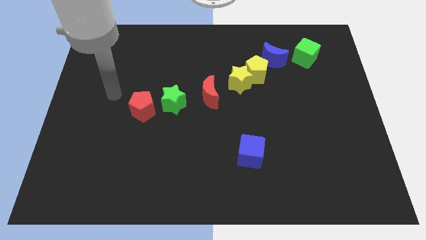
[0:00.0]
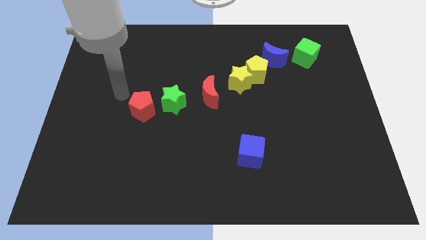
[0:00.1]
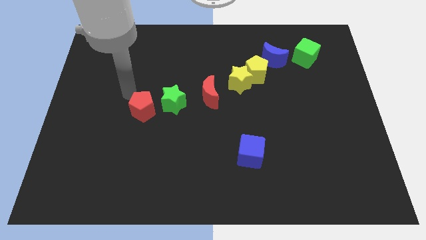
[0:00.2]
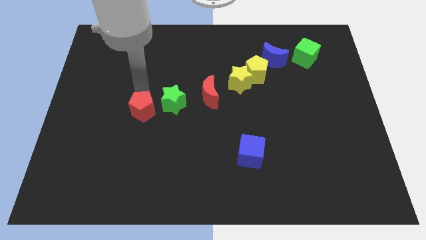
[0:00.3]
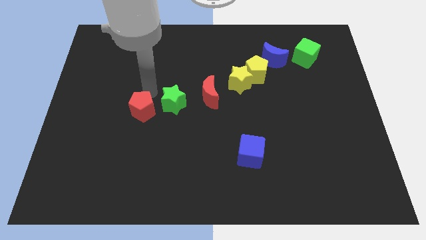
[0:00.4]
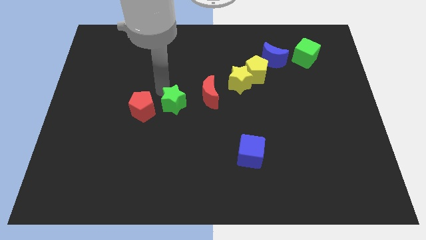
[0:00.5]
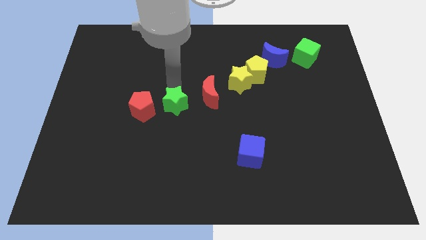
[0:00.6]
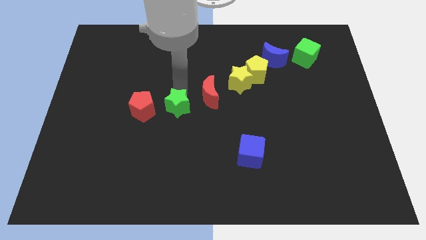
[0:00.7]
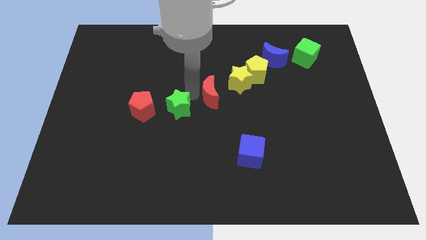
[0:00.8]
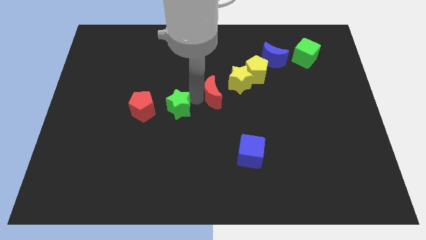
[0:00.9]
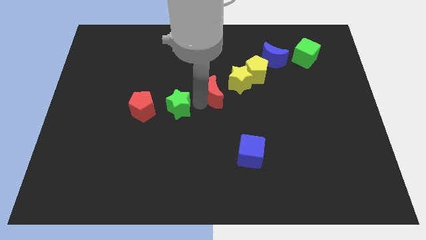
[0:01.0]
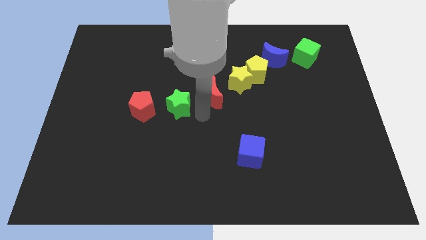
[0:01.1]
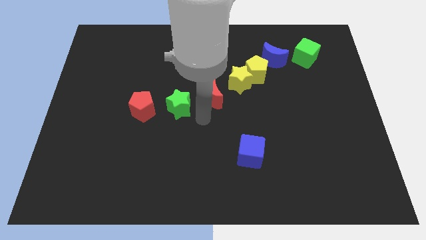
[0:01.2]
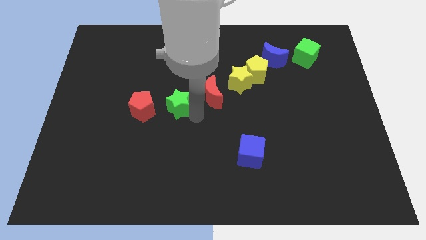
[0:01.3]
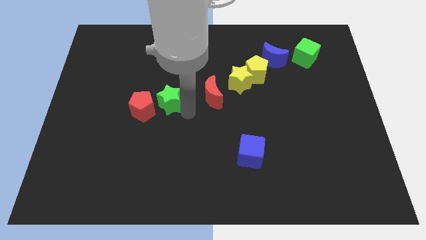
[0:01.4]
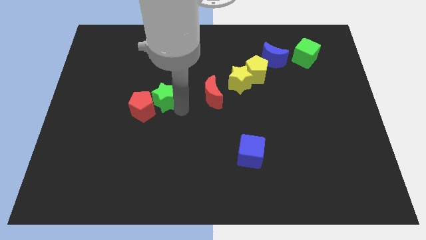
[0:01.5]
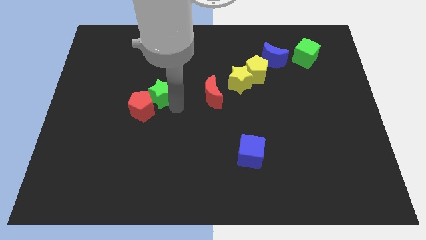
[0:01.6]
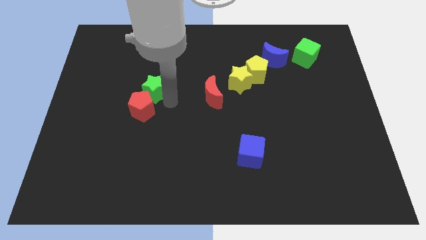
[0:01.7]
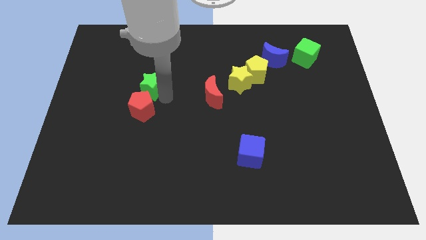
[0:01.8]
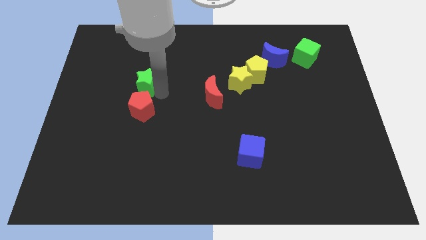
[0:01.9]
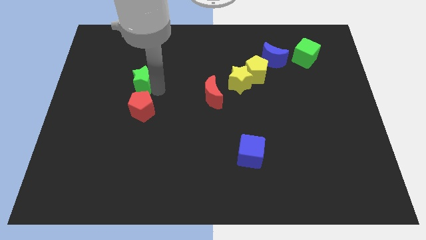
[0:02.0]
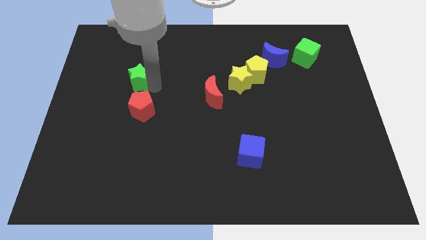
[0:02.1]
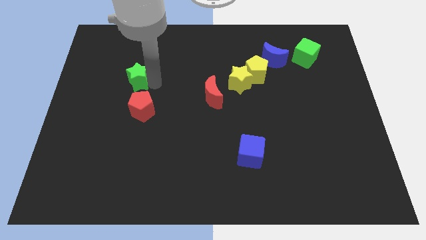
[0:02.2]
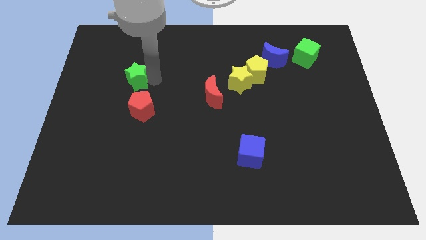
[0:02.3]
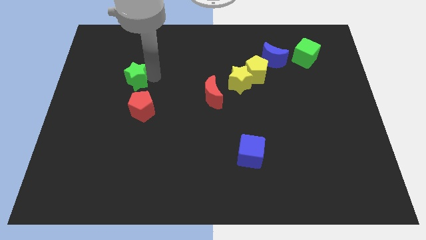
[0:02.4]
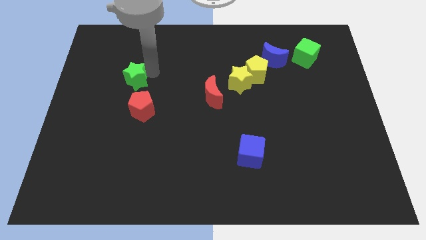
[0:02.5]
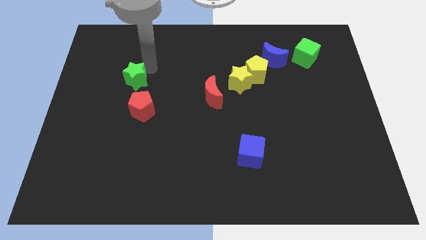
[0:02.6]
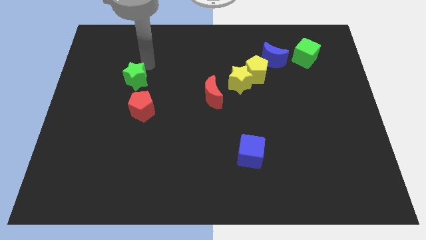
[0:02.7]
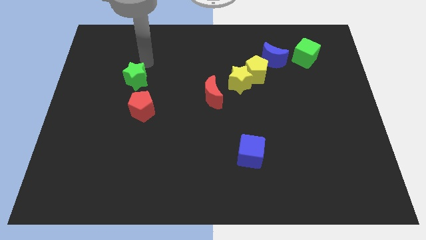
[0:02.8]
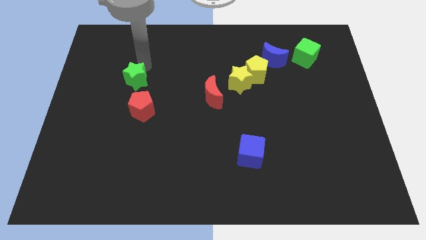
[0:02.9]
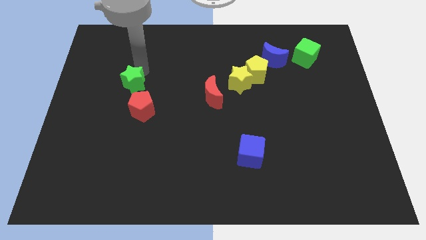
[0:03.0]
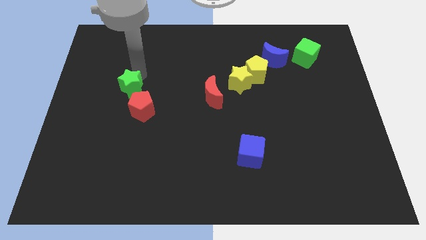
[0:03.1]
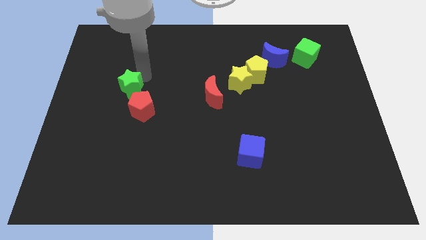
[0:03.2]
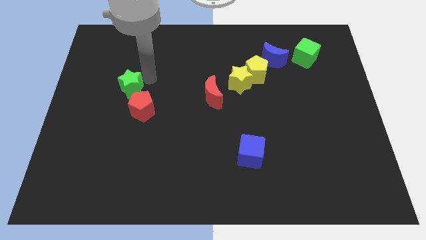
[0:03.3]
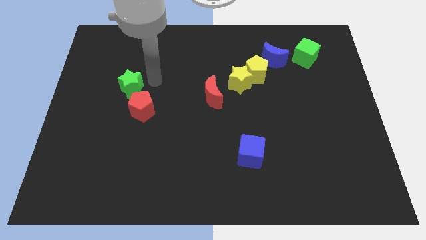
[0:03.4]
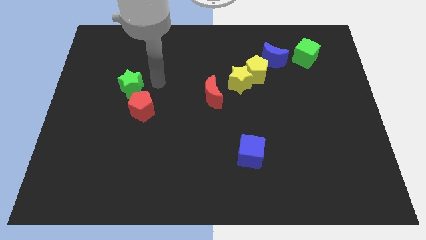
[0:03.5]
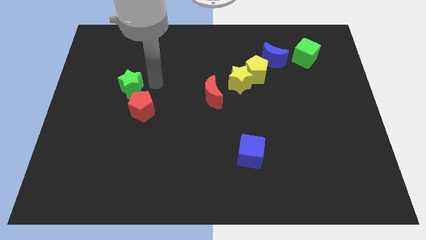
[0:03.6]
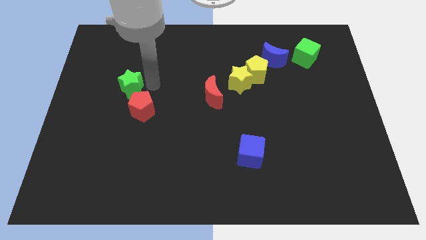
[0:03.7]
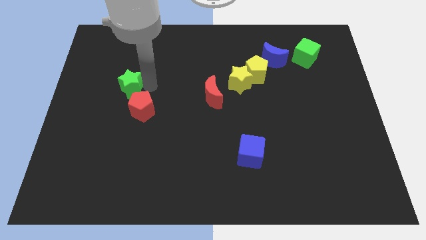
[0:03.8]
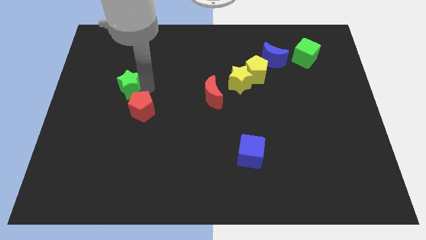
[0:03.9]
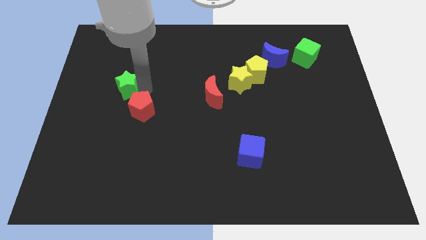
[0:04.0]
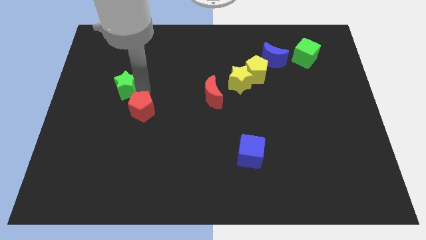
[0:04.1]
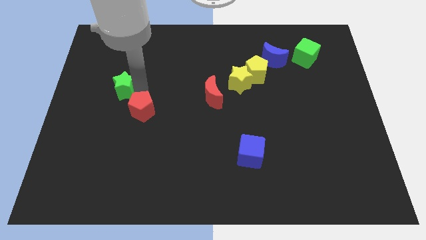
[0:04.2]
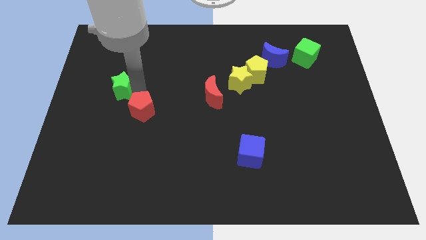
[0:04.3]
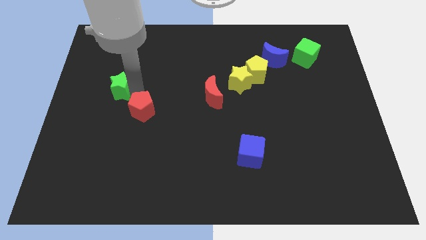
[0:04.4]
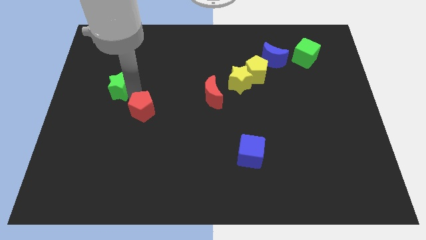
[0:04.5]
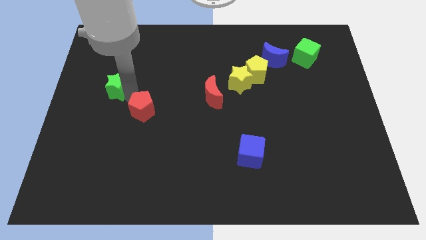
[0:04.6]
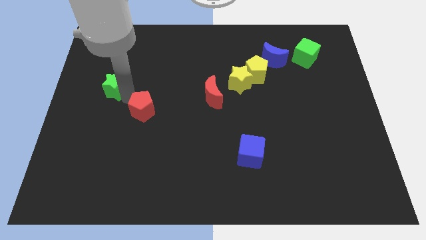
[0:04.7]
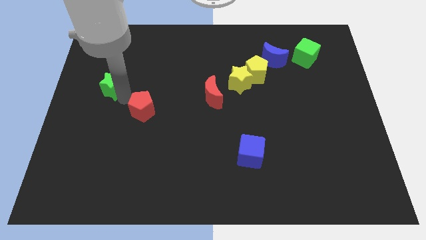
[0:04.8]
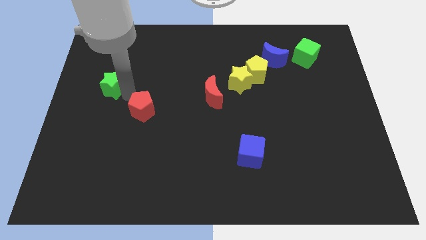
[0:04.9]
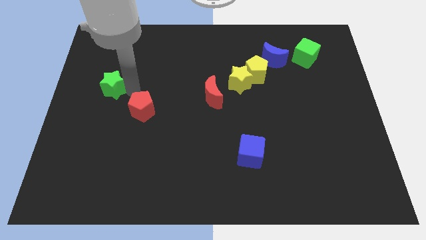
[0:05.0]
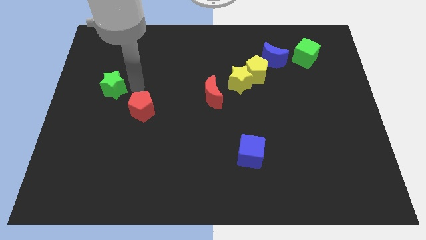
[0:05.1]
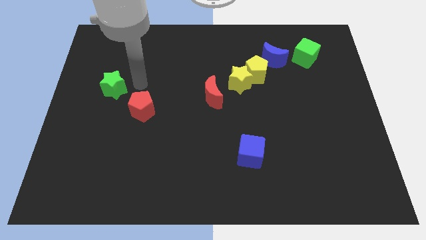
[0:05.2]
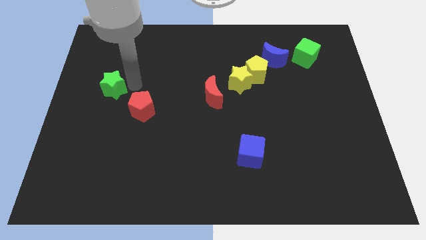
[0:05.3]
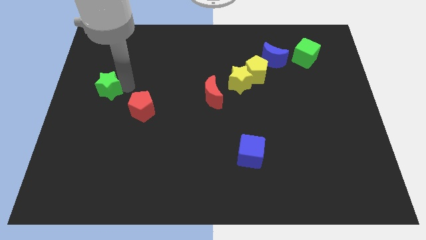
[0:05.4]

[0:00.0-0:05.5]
put the green star to the center left

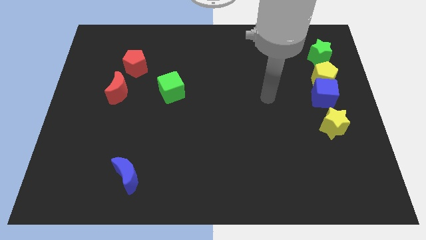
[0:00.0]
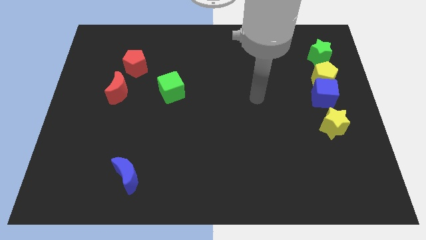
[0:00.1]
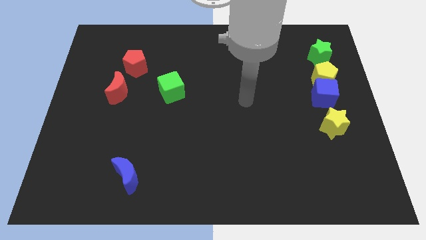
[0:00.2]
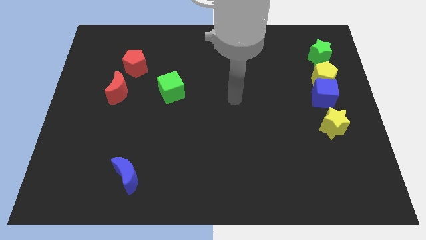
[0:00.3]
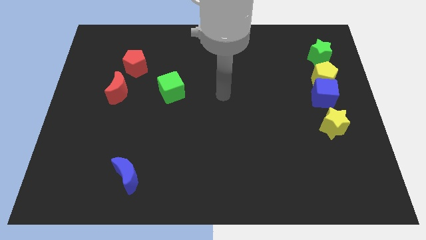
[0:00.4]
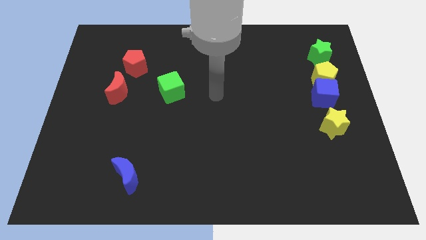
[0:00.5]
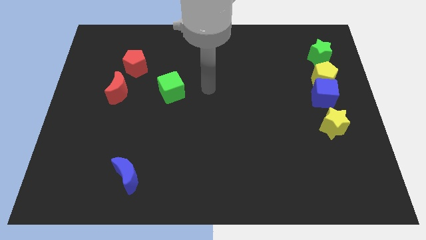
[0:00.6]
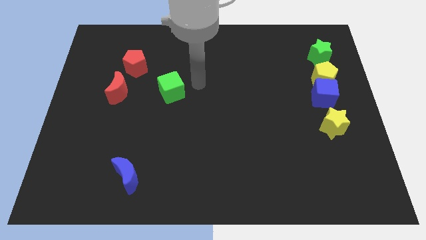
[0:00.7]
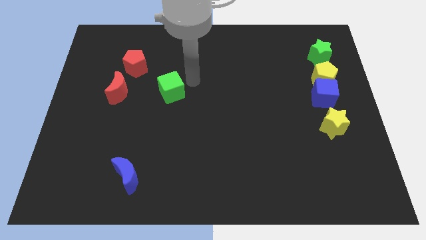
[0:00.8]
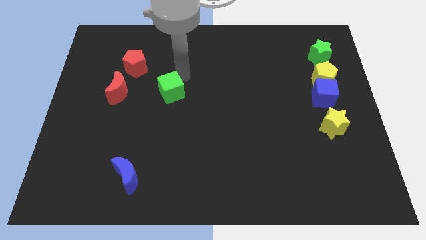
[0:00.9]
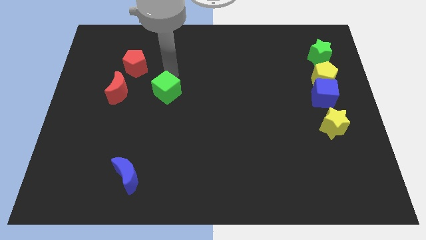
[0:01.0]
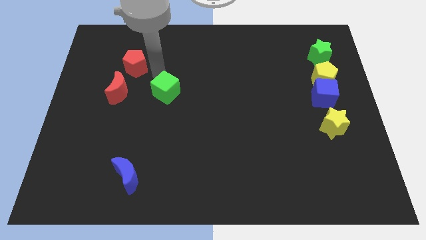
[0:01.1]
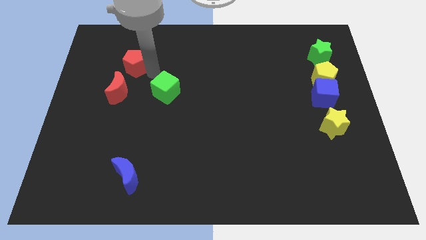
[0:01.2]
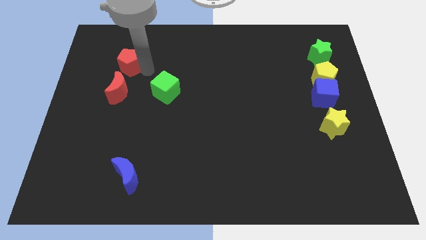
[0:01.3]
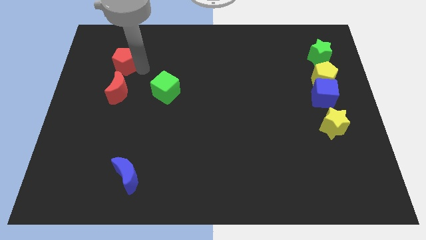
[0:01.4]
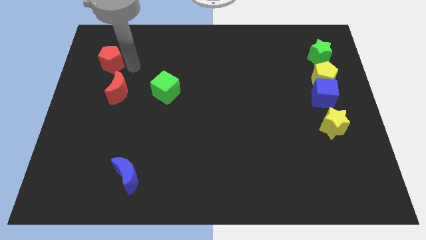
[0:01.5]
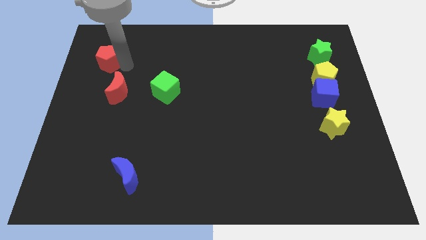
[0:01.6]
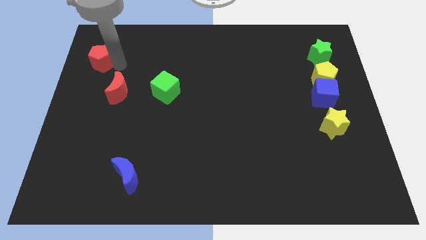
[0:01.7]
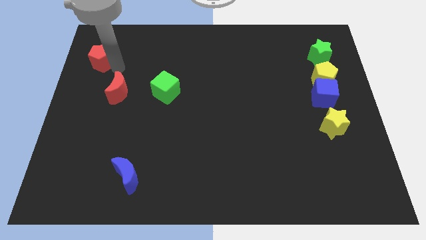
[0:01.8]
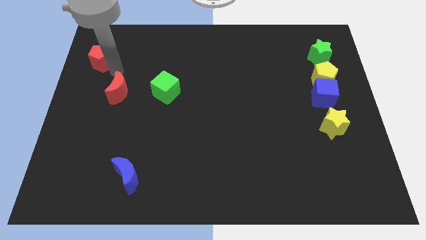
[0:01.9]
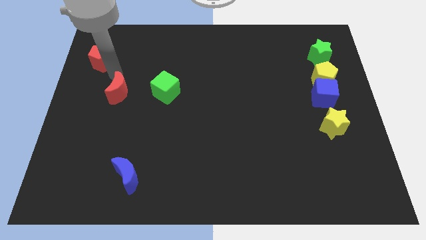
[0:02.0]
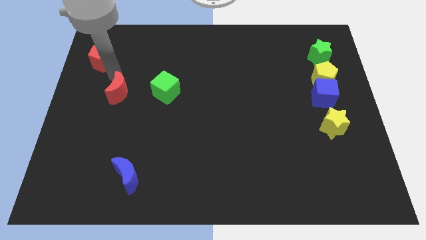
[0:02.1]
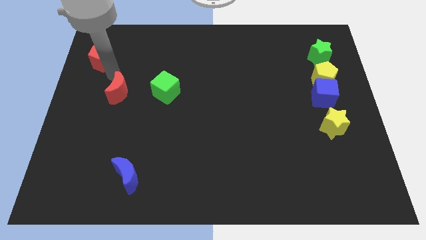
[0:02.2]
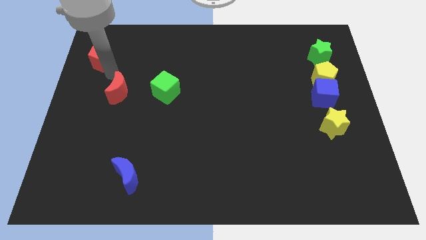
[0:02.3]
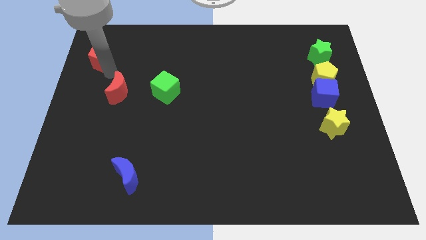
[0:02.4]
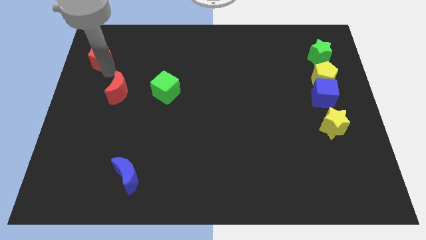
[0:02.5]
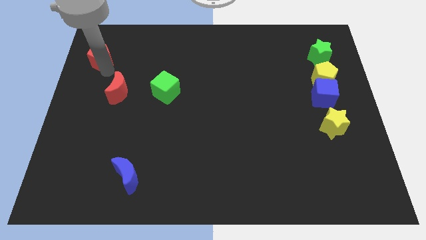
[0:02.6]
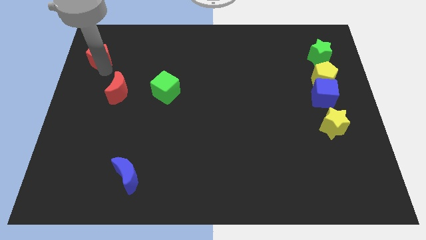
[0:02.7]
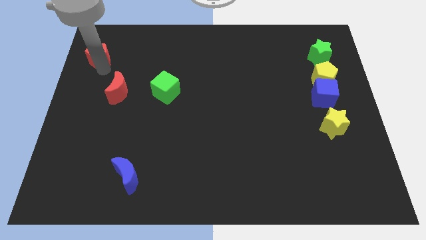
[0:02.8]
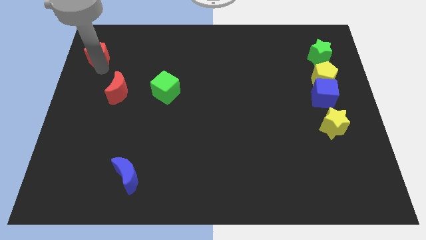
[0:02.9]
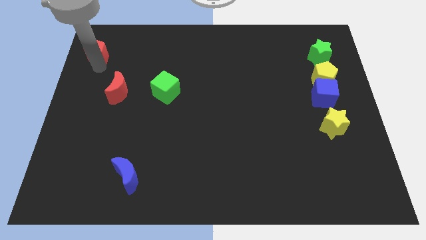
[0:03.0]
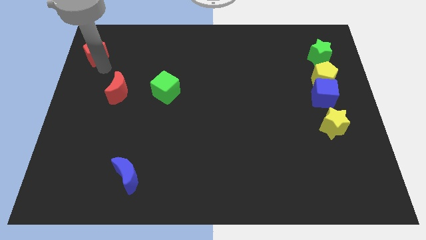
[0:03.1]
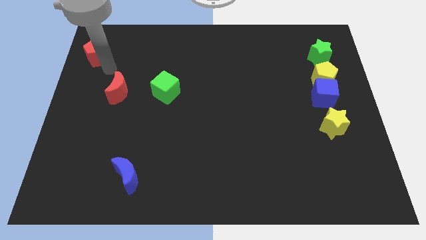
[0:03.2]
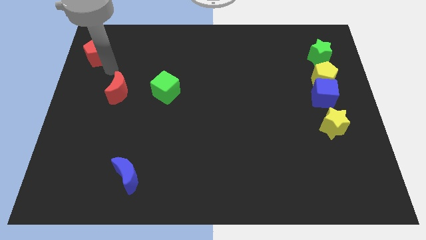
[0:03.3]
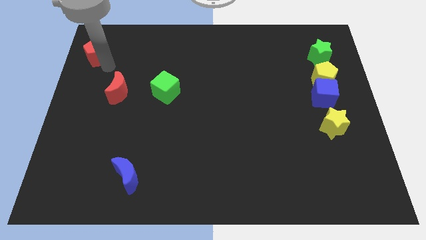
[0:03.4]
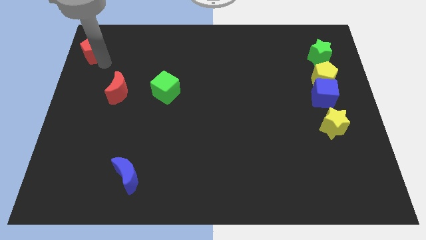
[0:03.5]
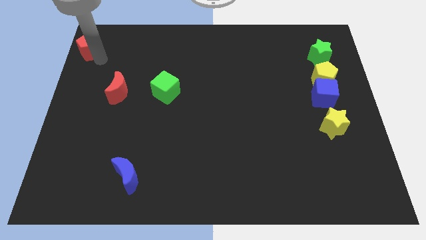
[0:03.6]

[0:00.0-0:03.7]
slide the red pentagon to the top left corner
